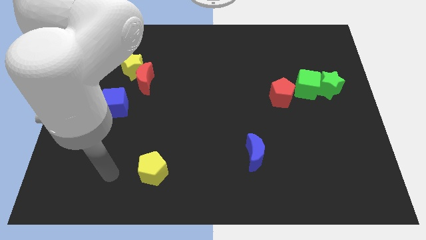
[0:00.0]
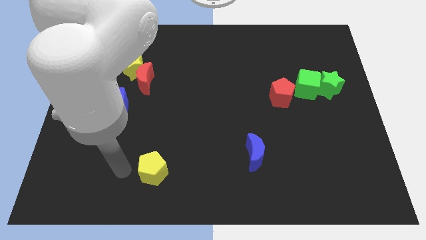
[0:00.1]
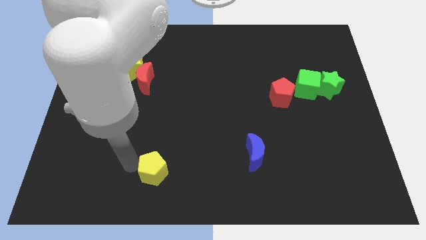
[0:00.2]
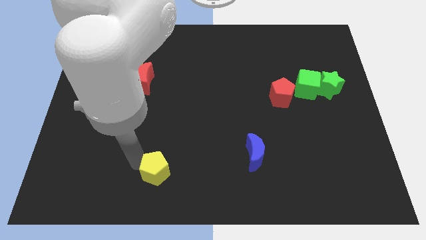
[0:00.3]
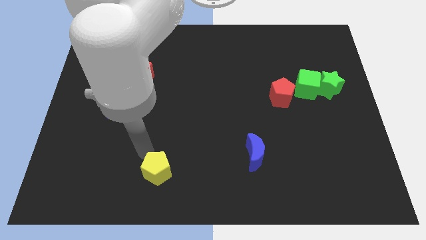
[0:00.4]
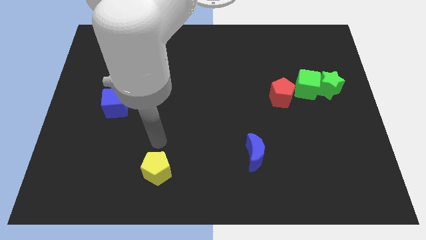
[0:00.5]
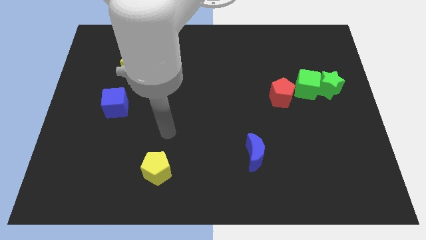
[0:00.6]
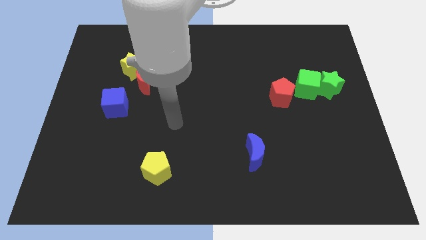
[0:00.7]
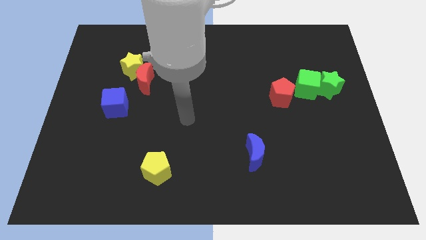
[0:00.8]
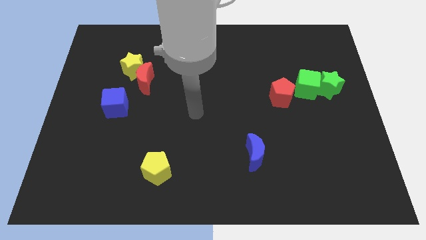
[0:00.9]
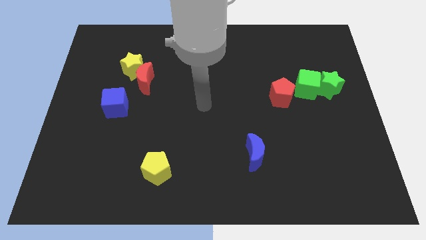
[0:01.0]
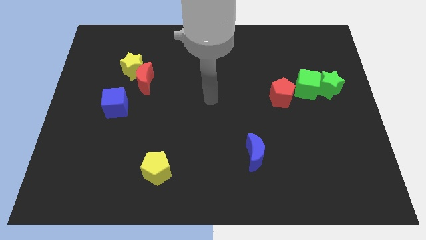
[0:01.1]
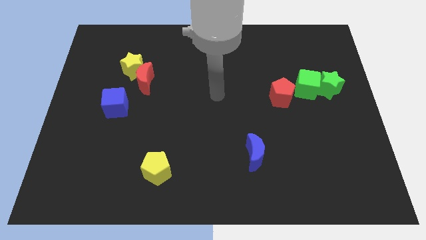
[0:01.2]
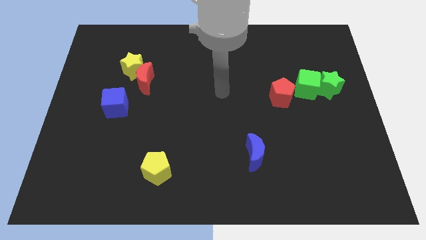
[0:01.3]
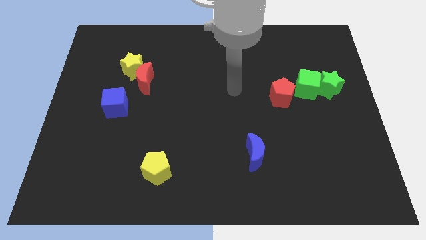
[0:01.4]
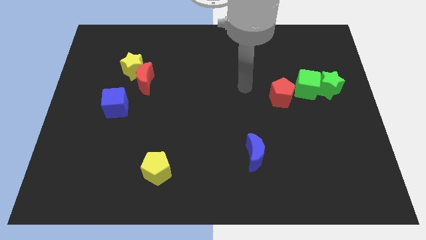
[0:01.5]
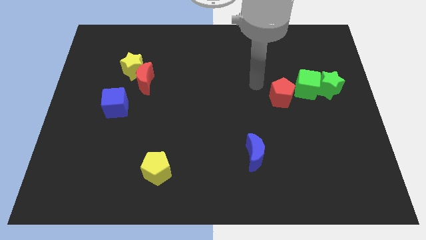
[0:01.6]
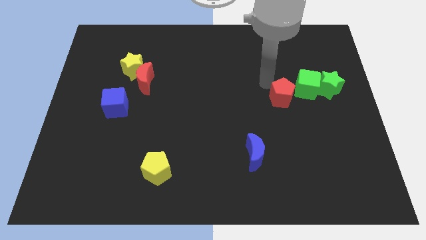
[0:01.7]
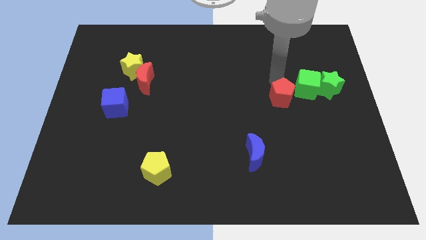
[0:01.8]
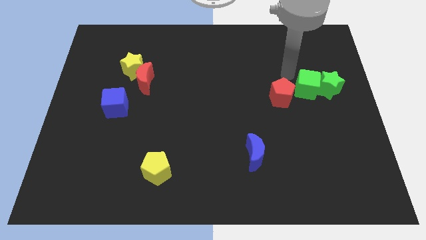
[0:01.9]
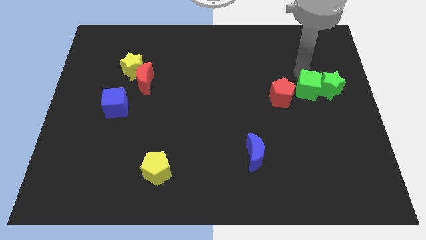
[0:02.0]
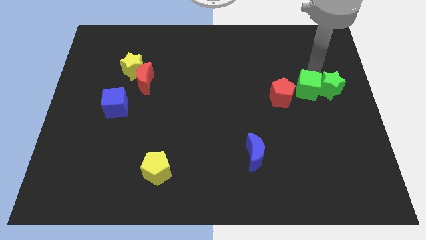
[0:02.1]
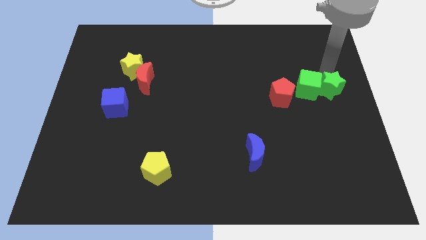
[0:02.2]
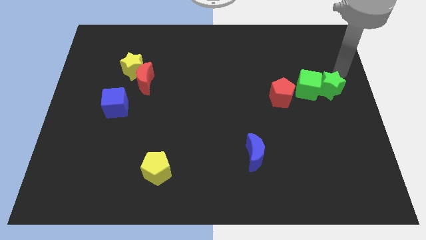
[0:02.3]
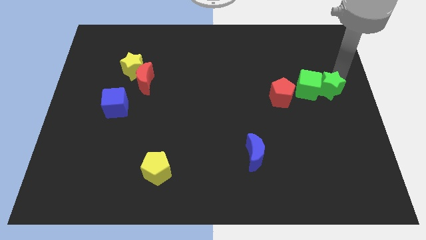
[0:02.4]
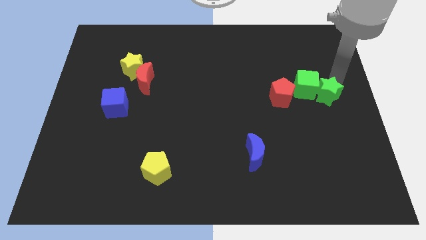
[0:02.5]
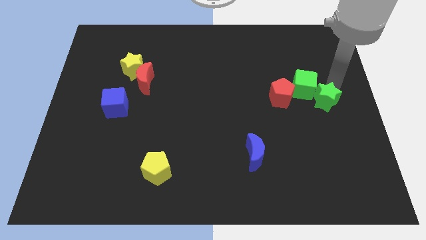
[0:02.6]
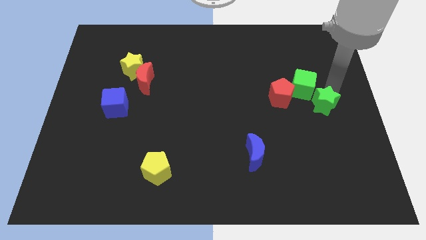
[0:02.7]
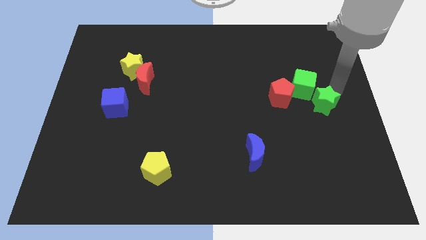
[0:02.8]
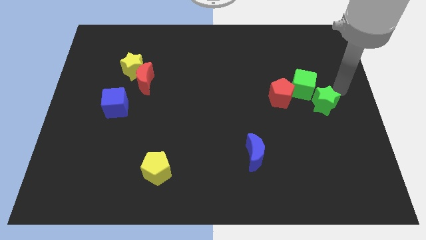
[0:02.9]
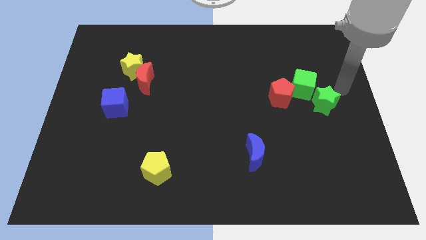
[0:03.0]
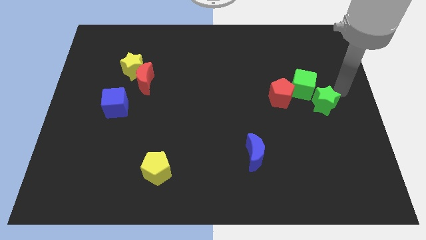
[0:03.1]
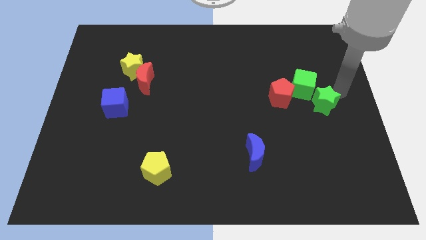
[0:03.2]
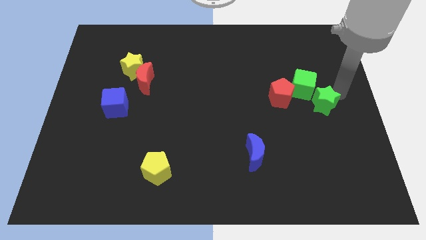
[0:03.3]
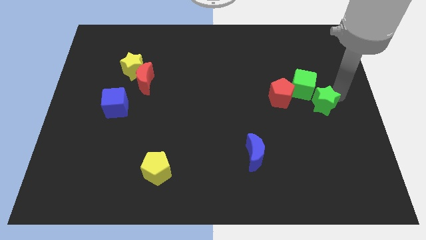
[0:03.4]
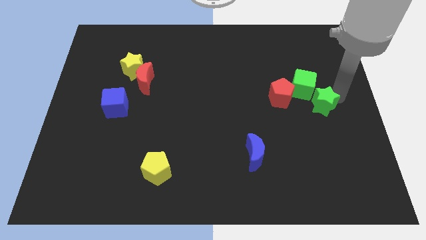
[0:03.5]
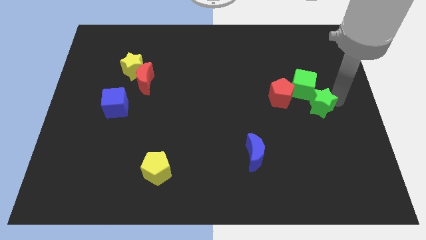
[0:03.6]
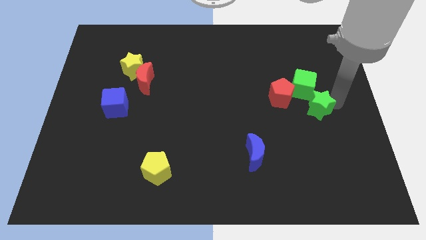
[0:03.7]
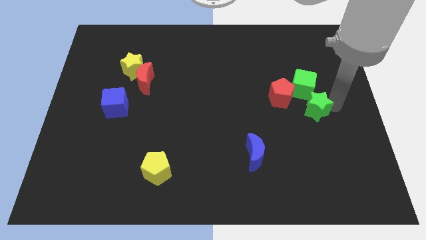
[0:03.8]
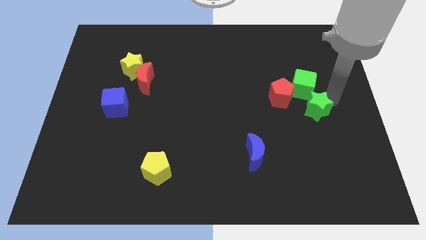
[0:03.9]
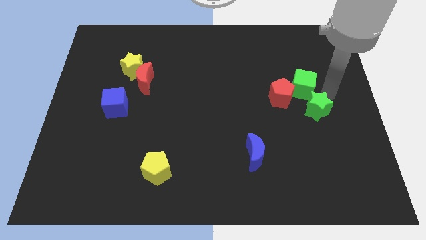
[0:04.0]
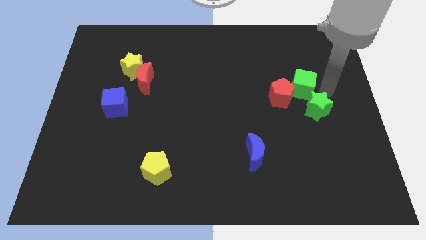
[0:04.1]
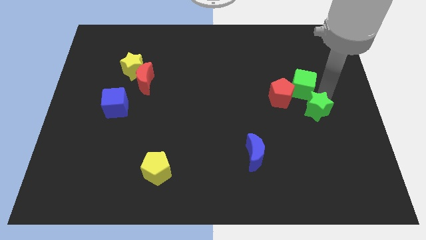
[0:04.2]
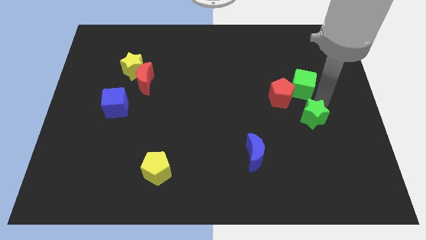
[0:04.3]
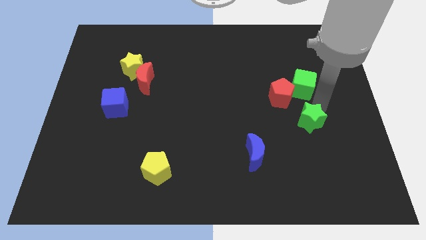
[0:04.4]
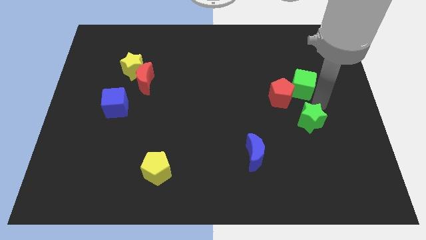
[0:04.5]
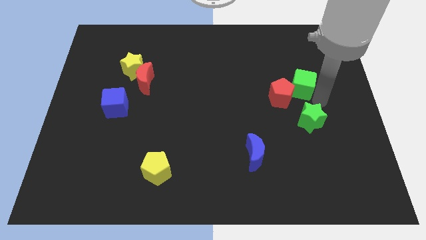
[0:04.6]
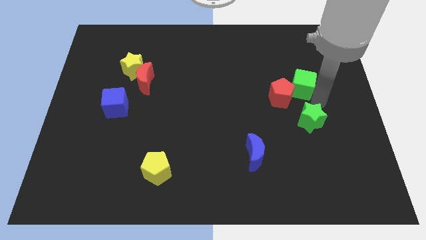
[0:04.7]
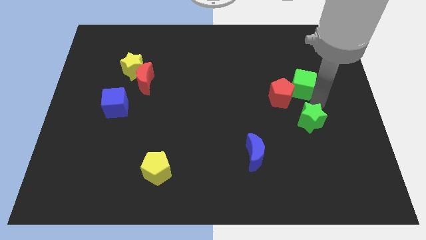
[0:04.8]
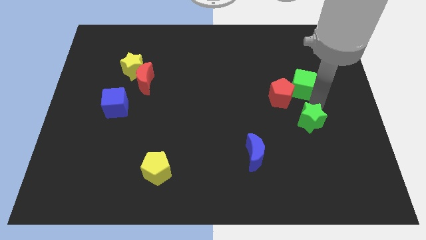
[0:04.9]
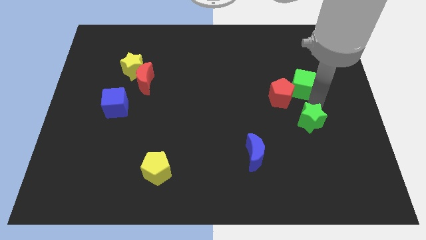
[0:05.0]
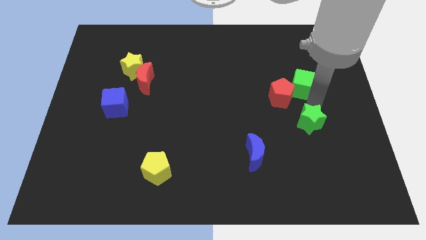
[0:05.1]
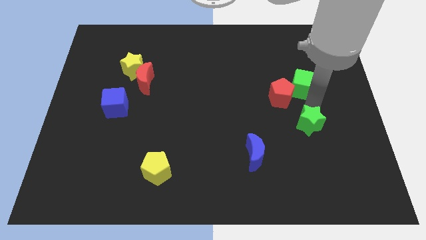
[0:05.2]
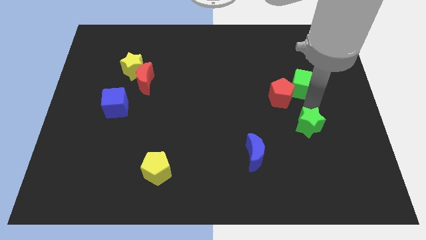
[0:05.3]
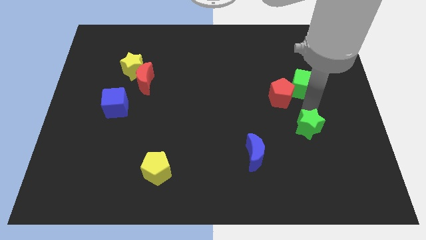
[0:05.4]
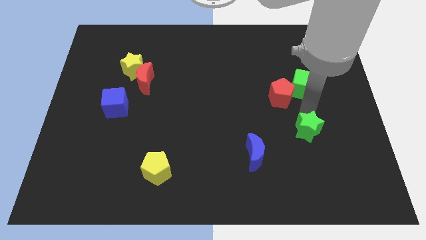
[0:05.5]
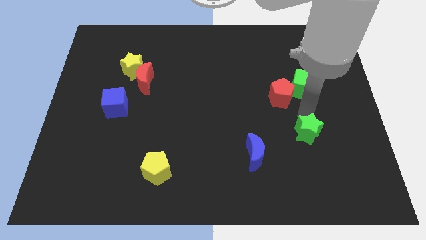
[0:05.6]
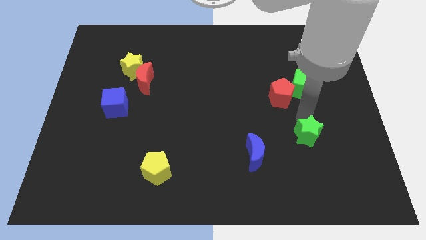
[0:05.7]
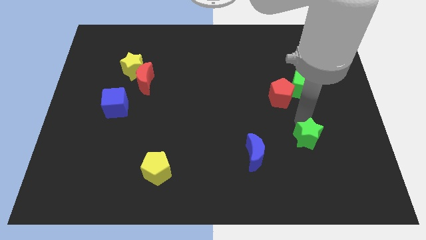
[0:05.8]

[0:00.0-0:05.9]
put the green star to the right of the blue moon

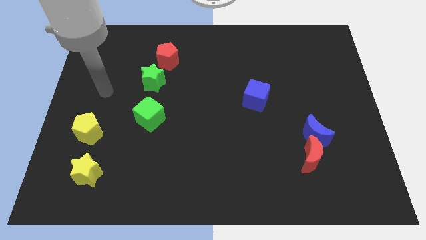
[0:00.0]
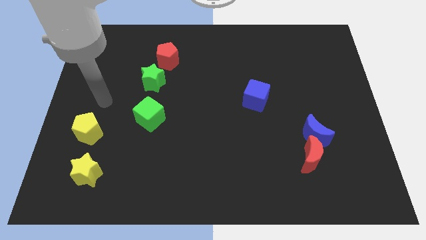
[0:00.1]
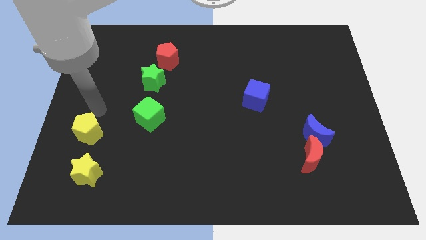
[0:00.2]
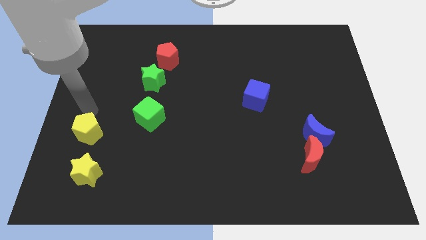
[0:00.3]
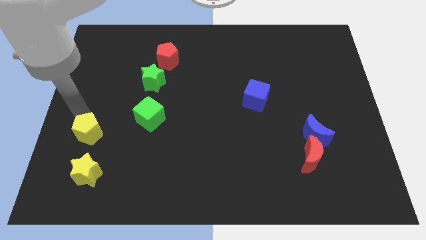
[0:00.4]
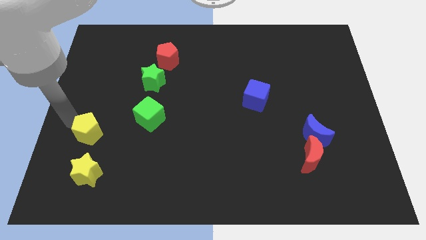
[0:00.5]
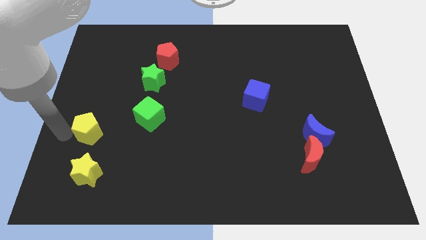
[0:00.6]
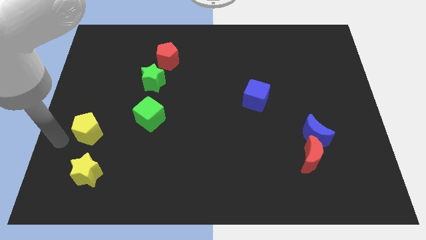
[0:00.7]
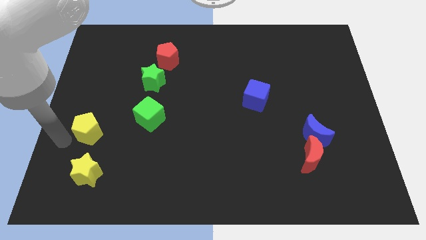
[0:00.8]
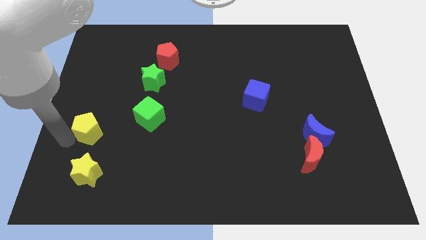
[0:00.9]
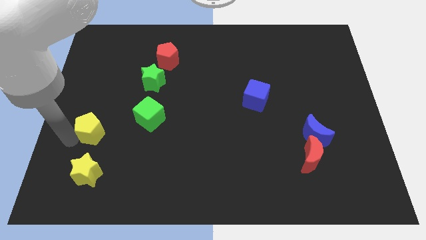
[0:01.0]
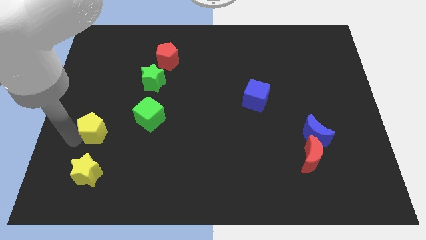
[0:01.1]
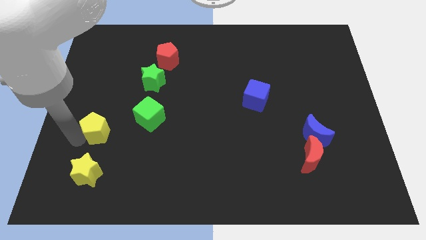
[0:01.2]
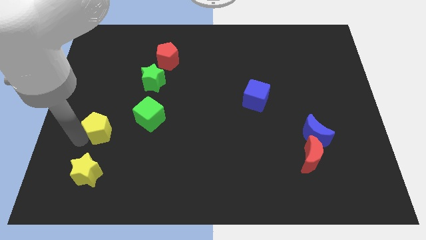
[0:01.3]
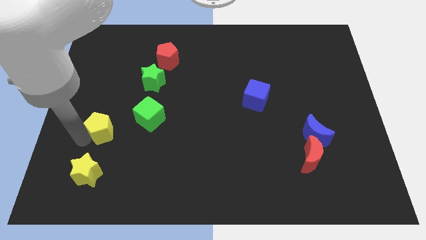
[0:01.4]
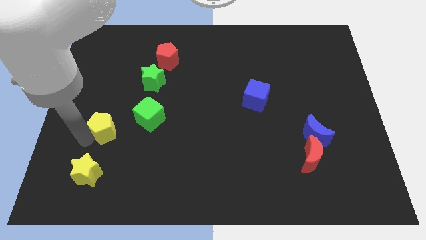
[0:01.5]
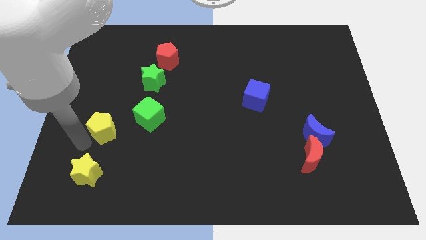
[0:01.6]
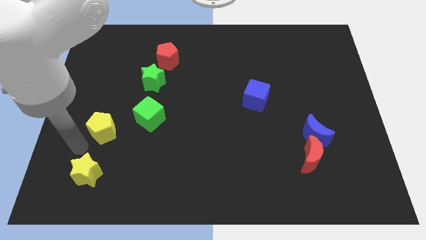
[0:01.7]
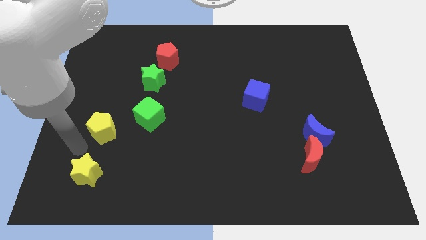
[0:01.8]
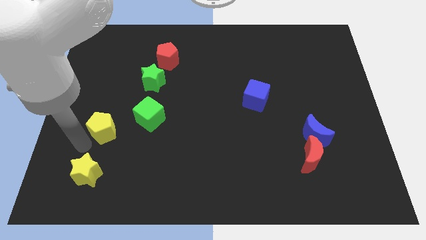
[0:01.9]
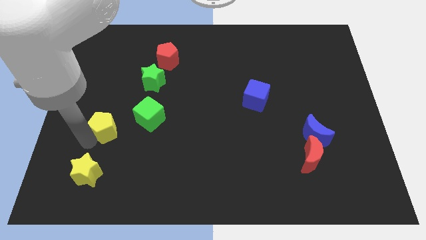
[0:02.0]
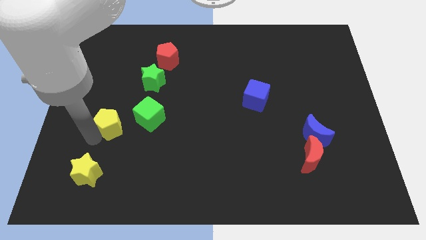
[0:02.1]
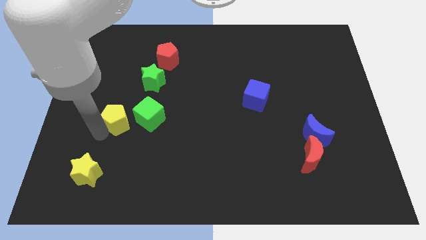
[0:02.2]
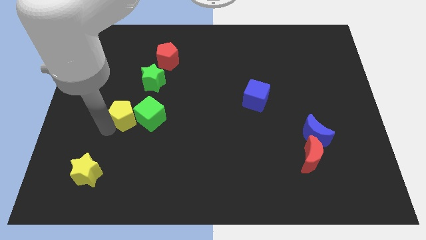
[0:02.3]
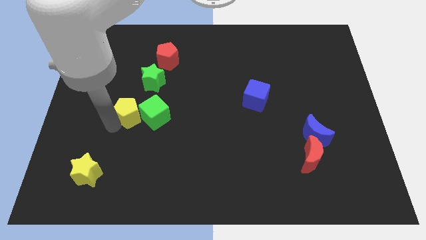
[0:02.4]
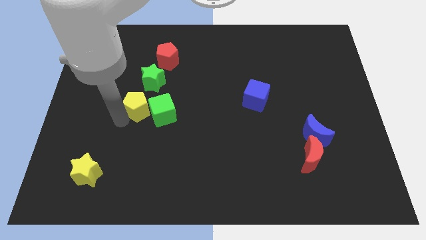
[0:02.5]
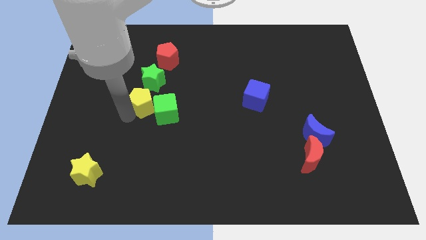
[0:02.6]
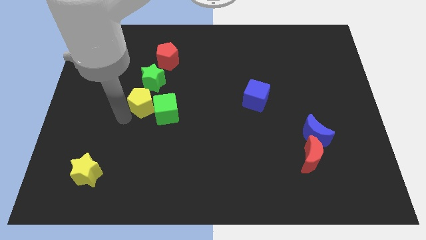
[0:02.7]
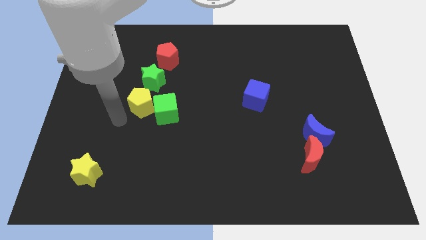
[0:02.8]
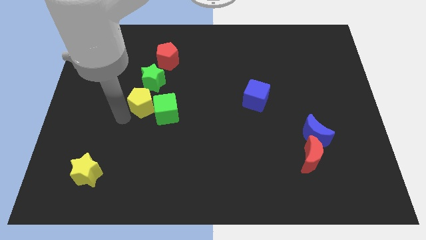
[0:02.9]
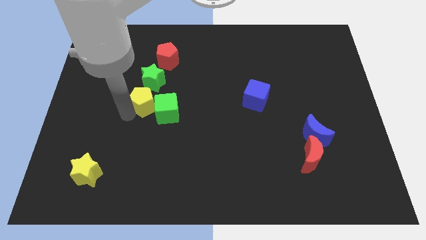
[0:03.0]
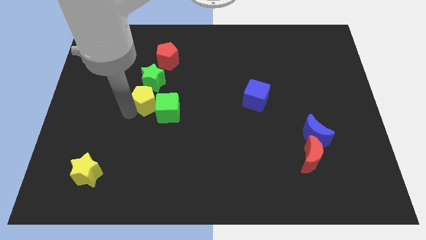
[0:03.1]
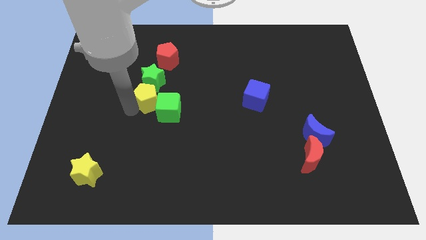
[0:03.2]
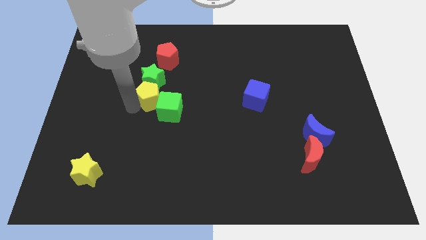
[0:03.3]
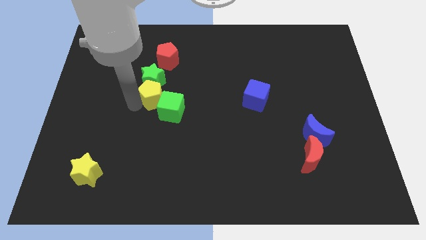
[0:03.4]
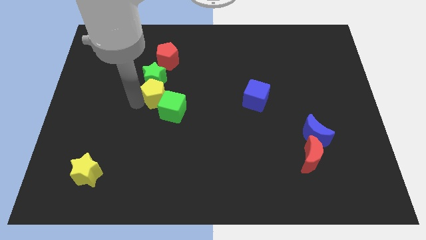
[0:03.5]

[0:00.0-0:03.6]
push the yellow pentagon above the green cube
